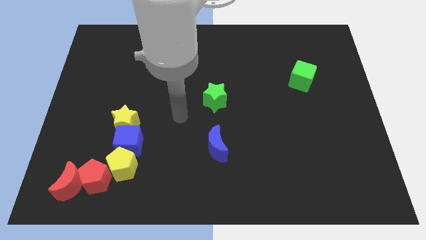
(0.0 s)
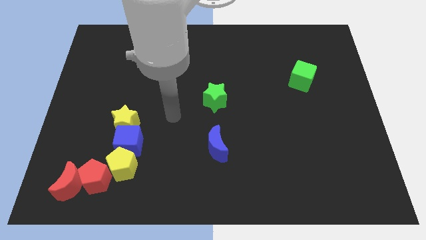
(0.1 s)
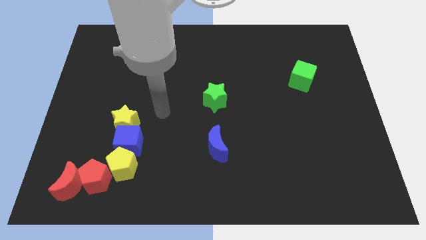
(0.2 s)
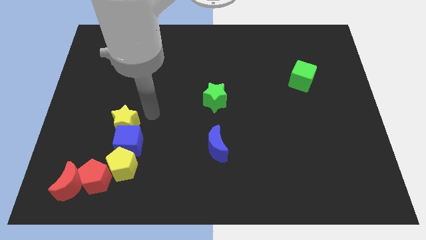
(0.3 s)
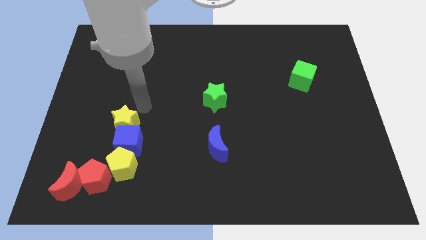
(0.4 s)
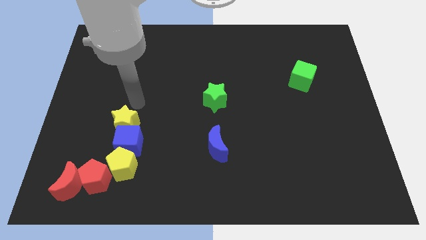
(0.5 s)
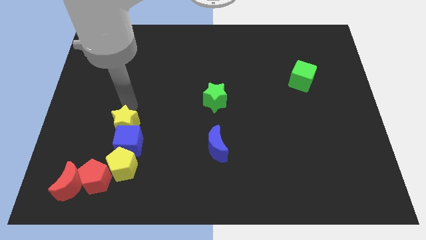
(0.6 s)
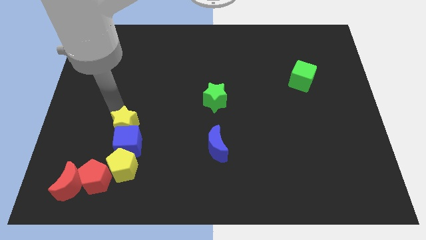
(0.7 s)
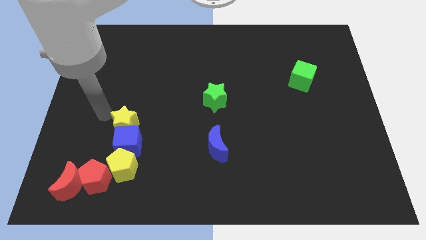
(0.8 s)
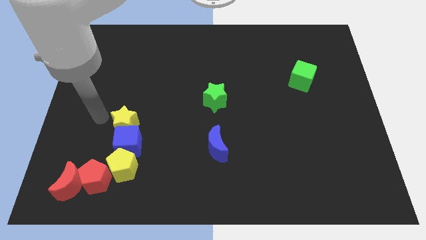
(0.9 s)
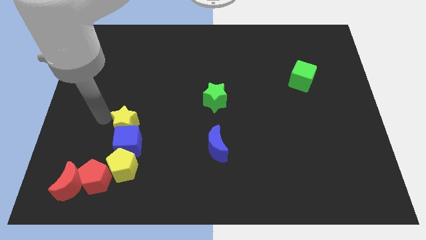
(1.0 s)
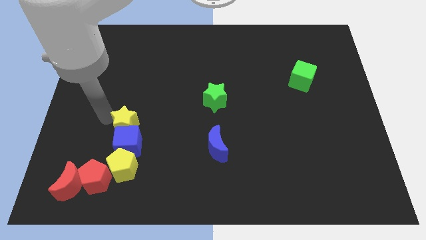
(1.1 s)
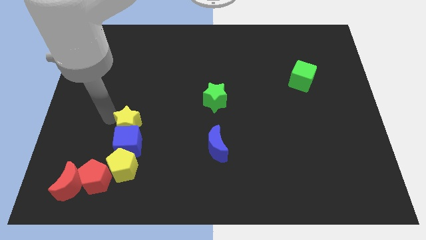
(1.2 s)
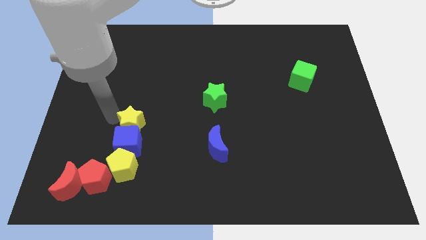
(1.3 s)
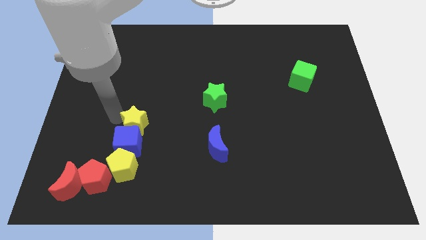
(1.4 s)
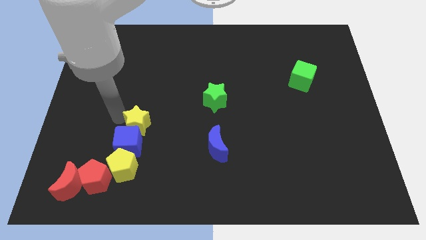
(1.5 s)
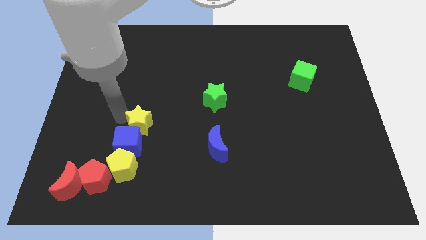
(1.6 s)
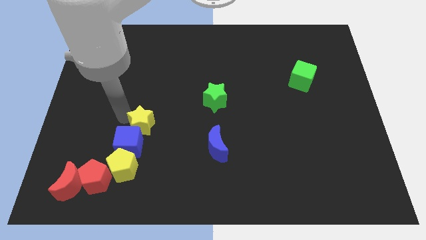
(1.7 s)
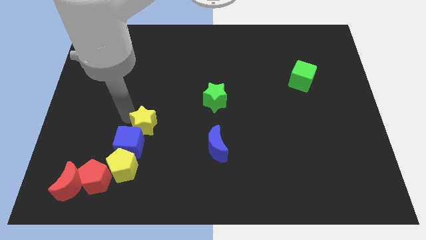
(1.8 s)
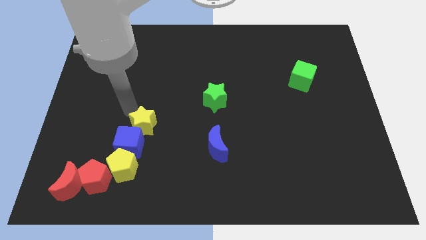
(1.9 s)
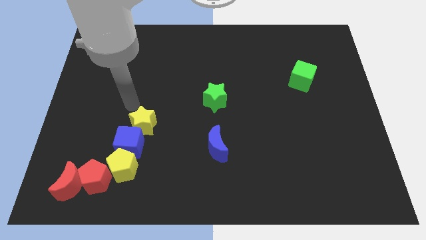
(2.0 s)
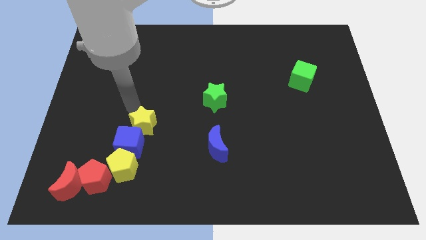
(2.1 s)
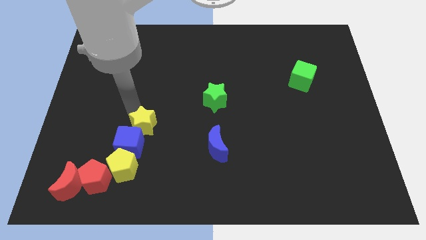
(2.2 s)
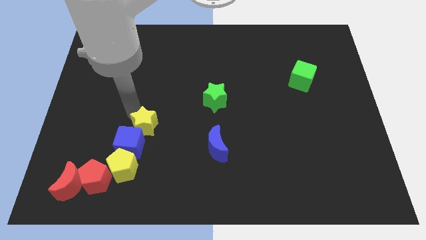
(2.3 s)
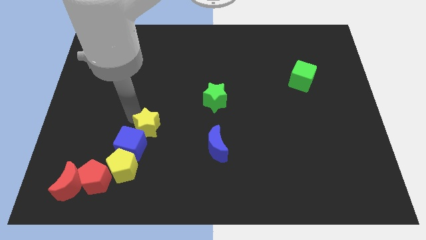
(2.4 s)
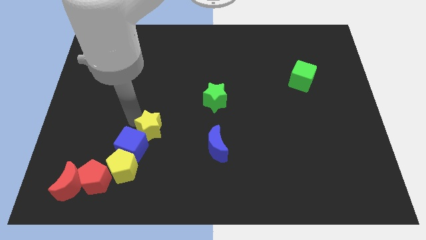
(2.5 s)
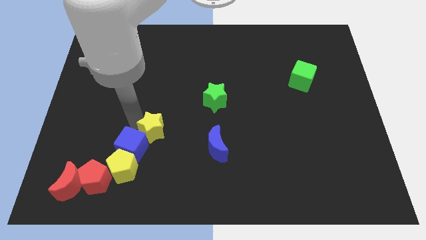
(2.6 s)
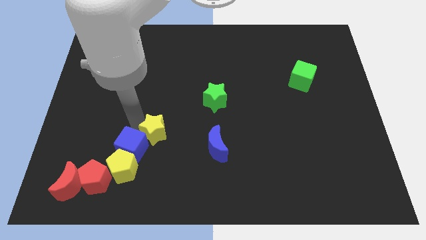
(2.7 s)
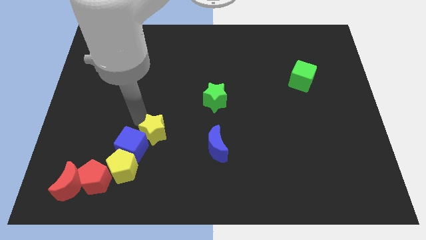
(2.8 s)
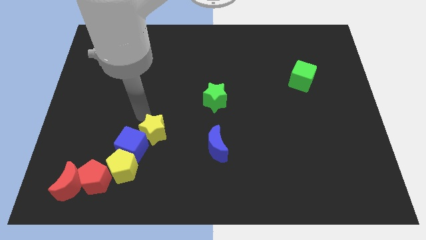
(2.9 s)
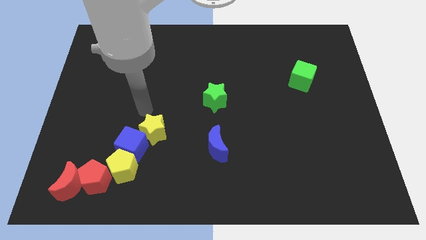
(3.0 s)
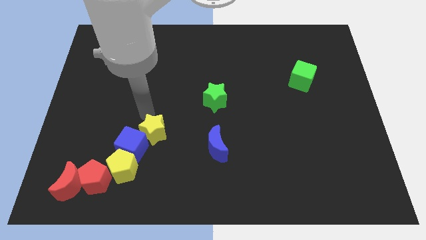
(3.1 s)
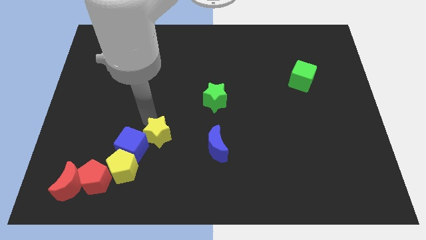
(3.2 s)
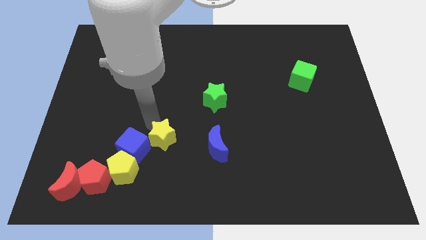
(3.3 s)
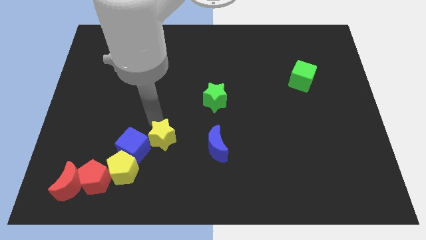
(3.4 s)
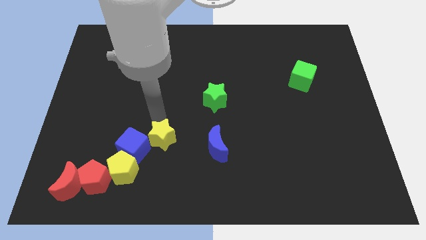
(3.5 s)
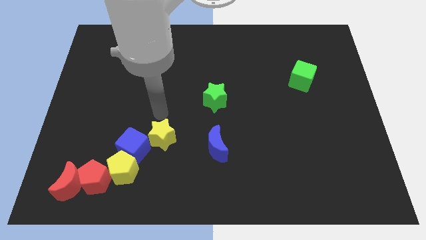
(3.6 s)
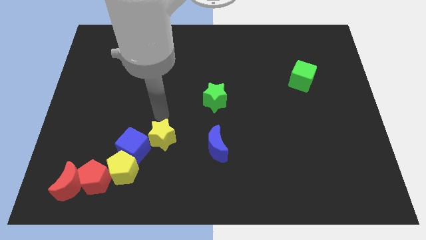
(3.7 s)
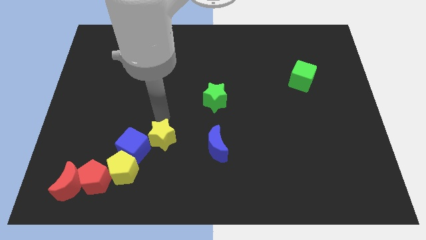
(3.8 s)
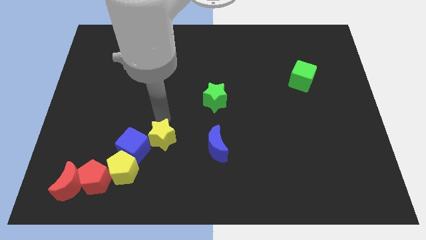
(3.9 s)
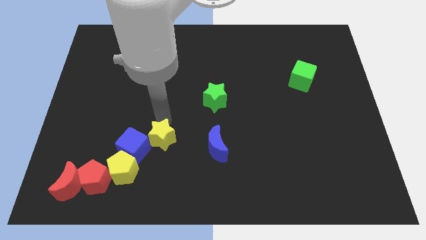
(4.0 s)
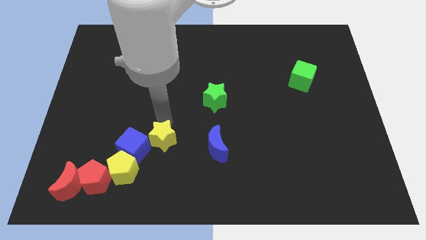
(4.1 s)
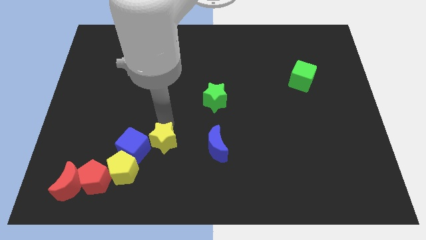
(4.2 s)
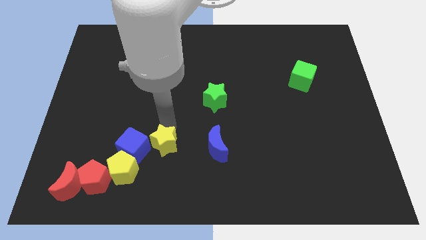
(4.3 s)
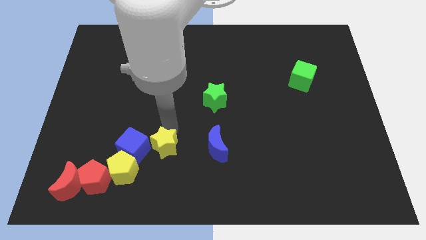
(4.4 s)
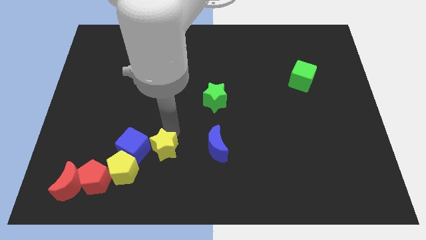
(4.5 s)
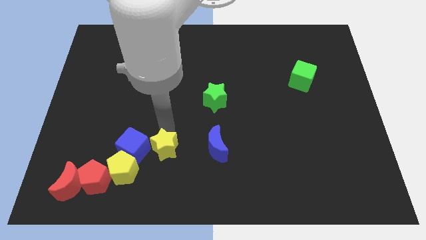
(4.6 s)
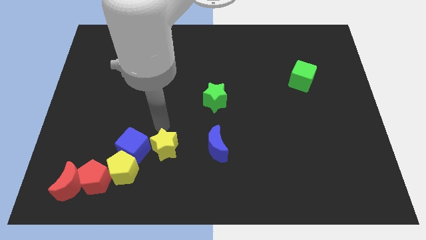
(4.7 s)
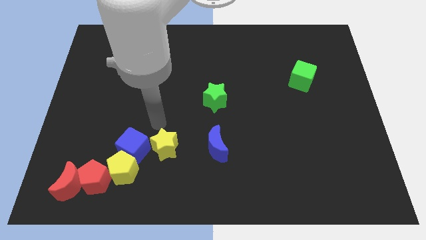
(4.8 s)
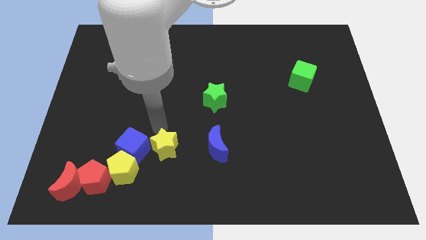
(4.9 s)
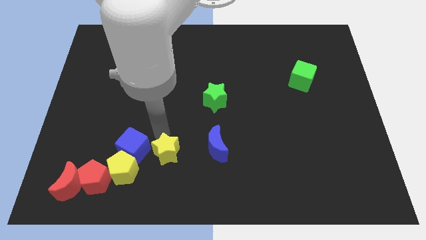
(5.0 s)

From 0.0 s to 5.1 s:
put the yellow star to the right side of the yellow pentagon

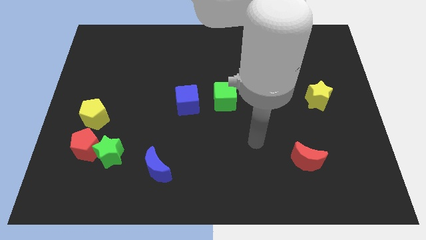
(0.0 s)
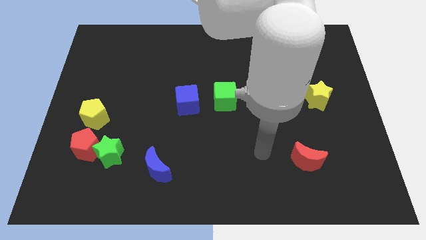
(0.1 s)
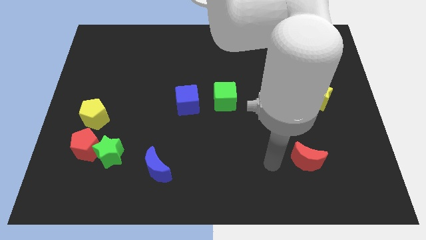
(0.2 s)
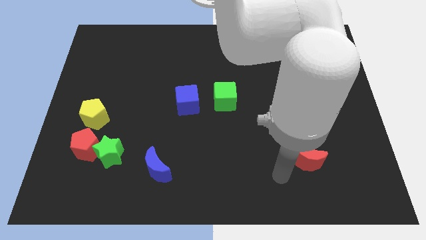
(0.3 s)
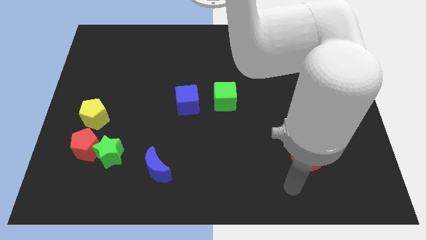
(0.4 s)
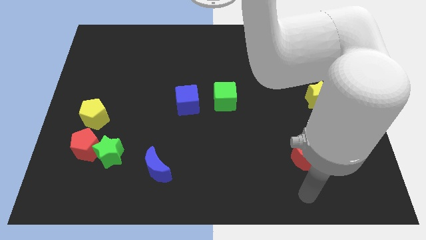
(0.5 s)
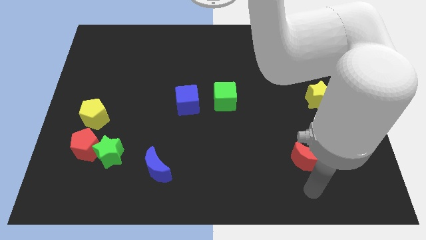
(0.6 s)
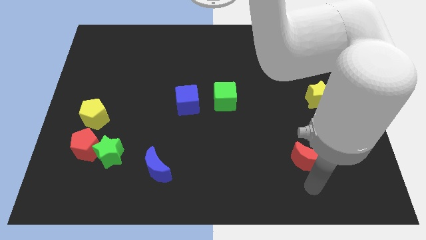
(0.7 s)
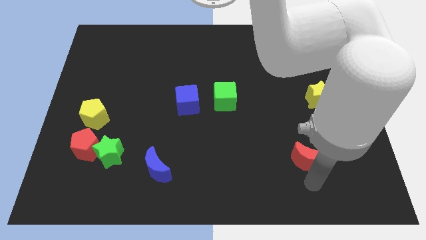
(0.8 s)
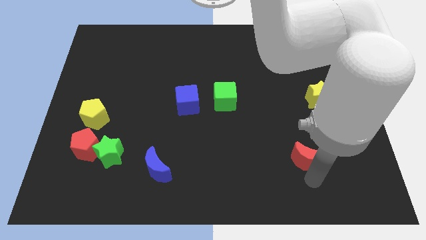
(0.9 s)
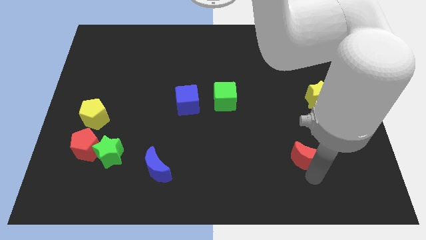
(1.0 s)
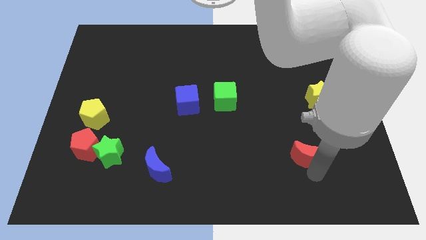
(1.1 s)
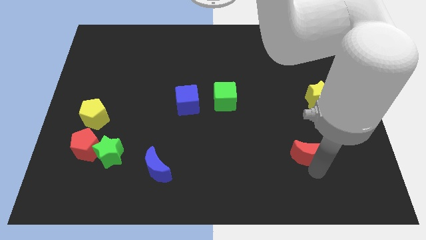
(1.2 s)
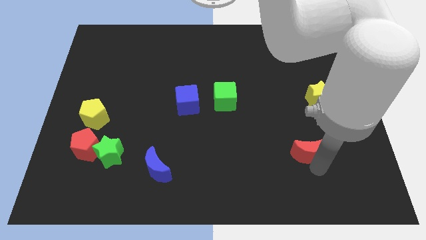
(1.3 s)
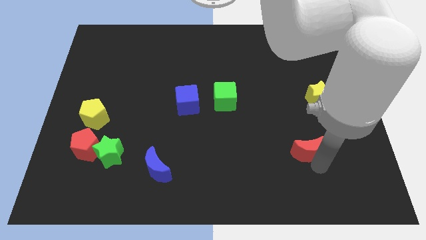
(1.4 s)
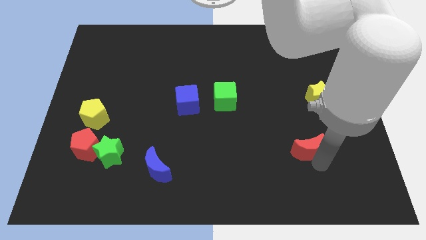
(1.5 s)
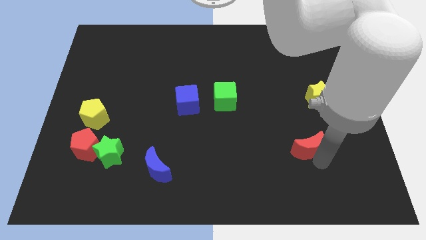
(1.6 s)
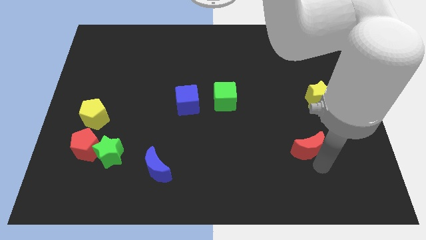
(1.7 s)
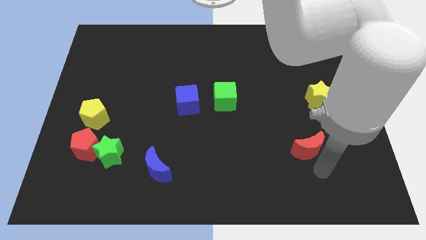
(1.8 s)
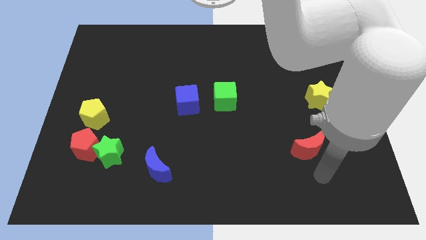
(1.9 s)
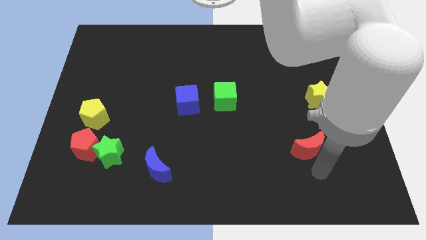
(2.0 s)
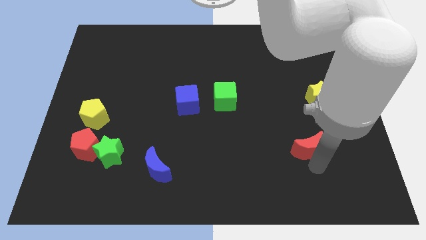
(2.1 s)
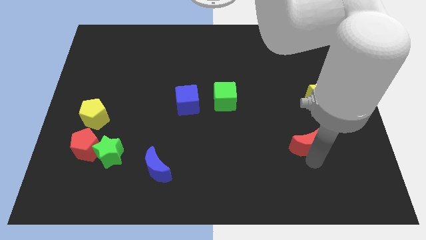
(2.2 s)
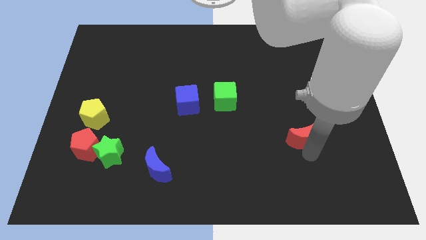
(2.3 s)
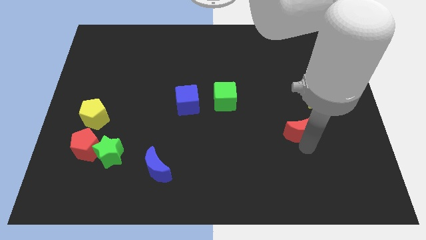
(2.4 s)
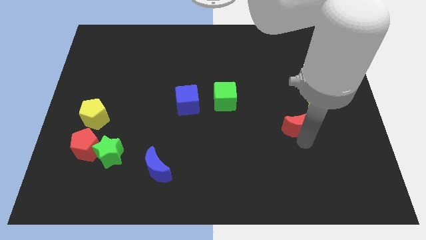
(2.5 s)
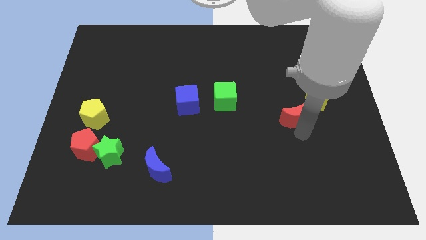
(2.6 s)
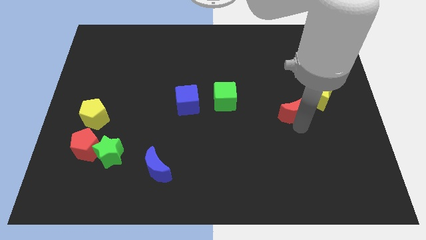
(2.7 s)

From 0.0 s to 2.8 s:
move the red moon left of the yellow star

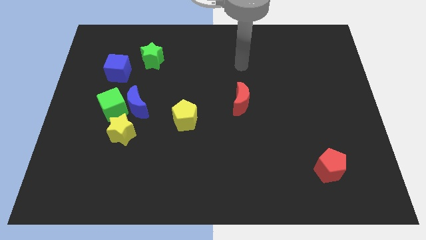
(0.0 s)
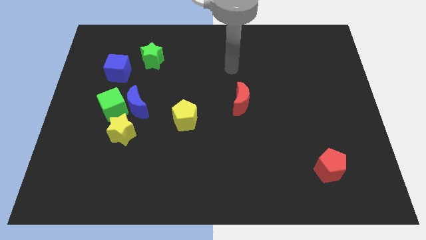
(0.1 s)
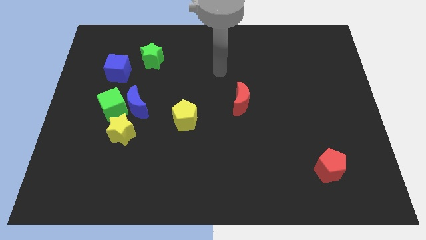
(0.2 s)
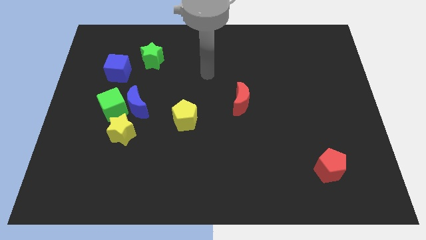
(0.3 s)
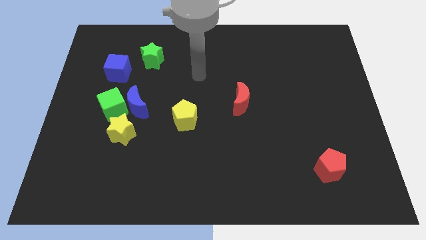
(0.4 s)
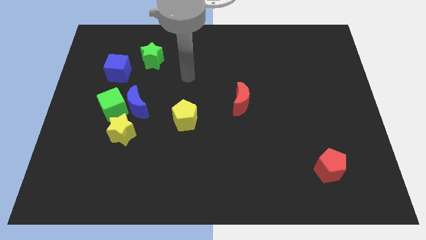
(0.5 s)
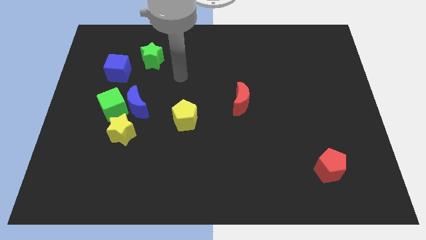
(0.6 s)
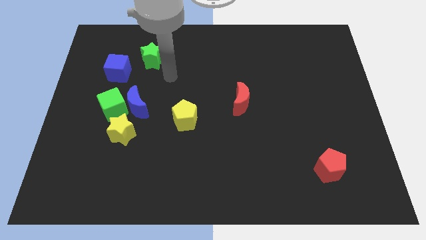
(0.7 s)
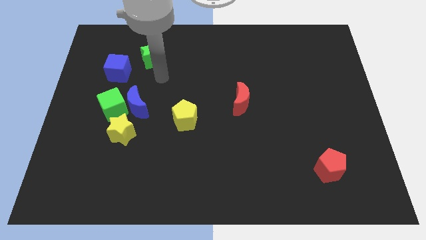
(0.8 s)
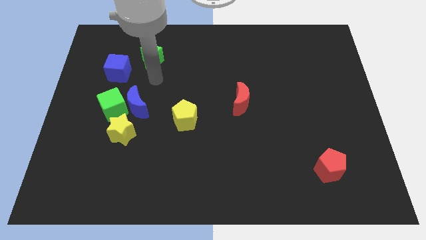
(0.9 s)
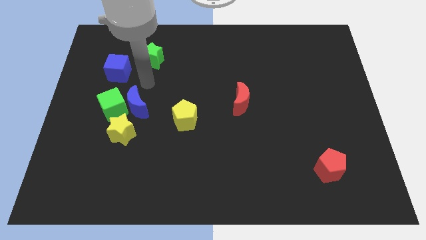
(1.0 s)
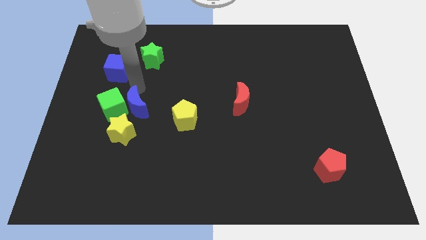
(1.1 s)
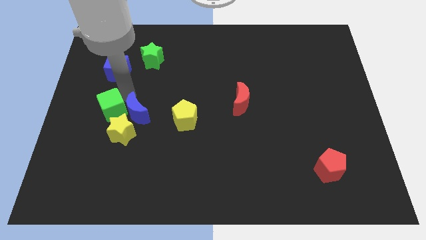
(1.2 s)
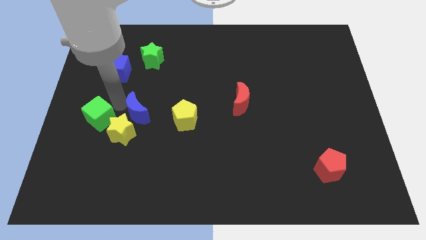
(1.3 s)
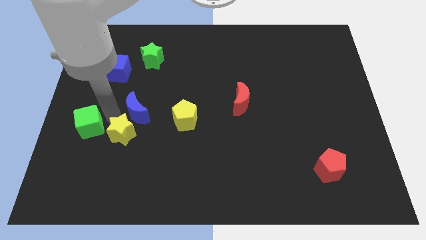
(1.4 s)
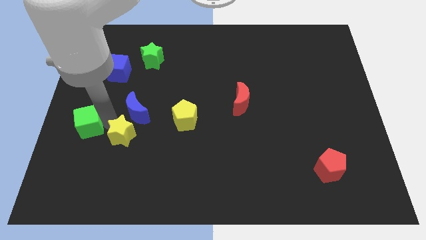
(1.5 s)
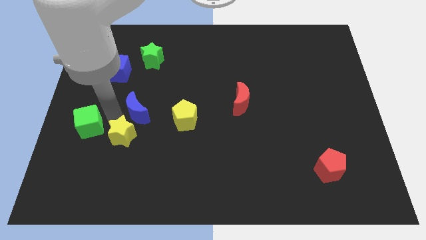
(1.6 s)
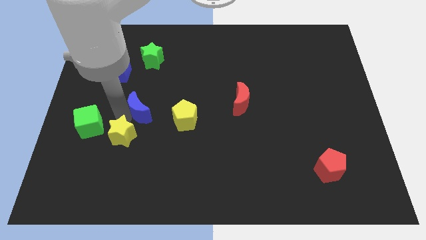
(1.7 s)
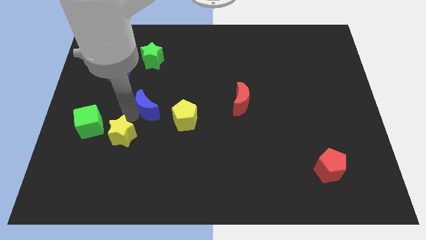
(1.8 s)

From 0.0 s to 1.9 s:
put the blue moon diagonally up and to the left of the yellow pentagon
